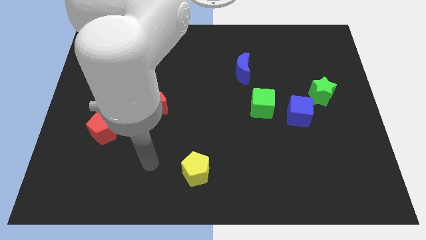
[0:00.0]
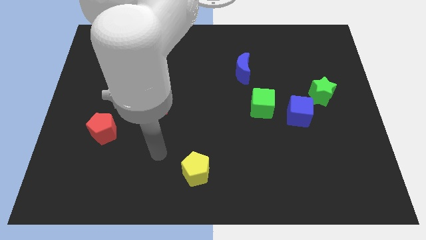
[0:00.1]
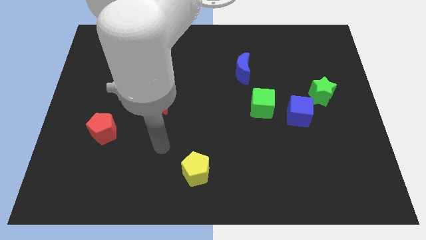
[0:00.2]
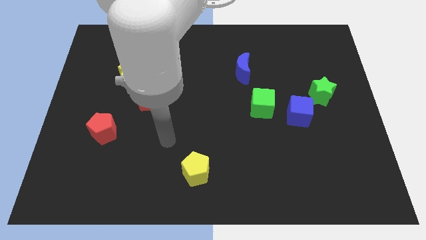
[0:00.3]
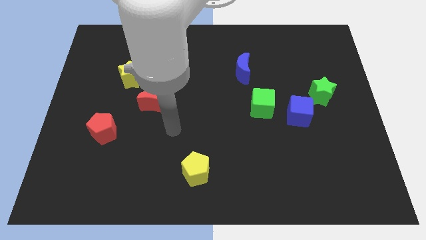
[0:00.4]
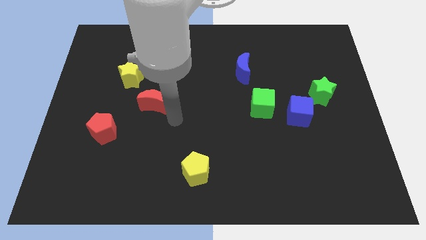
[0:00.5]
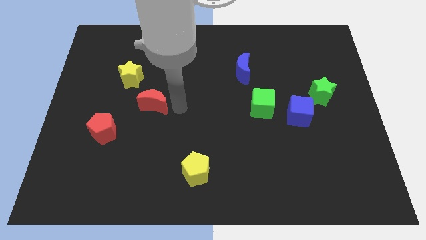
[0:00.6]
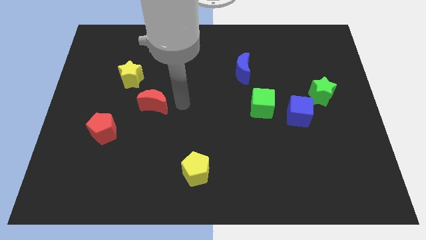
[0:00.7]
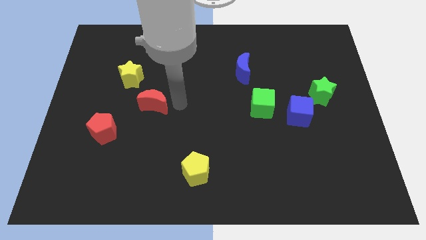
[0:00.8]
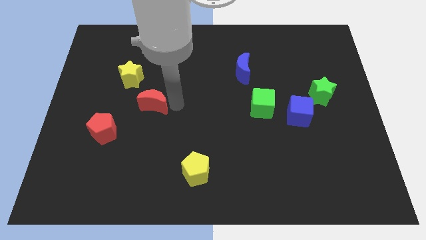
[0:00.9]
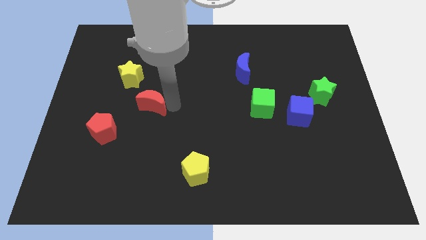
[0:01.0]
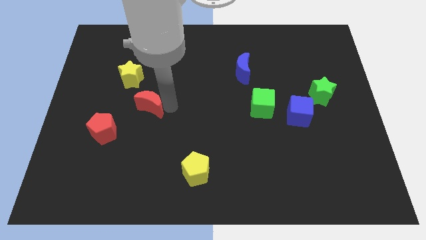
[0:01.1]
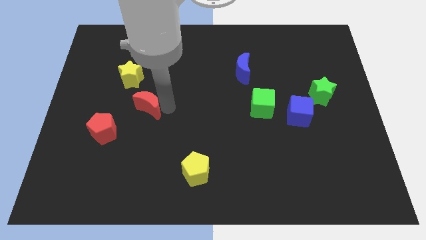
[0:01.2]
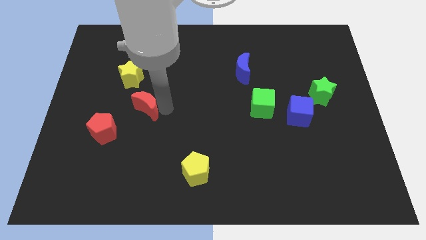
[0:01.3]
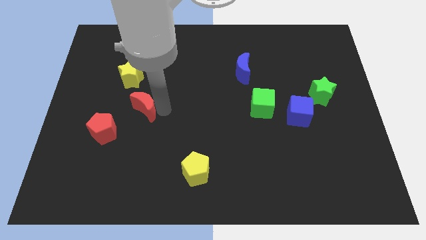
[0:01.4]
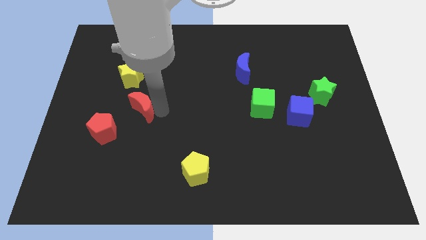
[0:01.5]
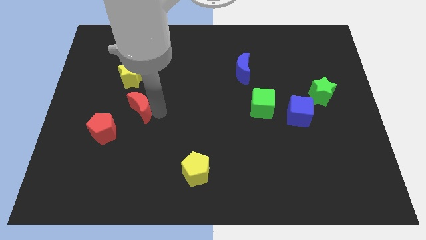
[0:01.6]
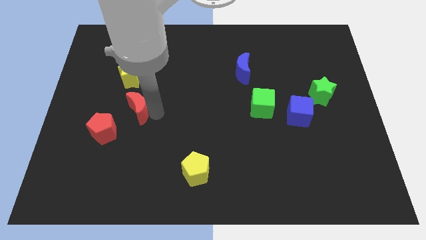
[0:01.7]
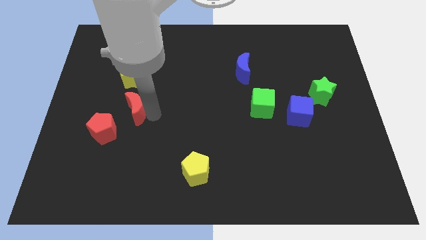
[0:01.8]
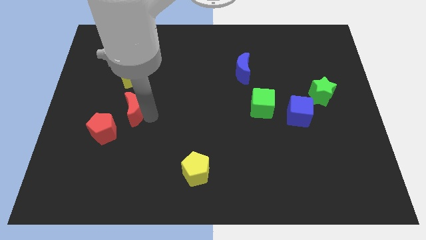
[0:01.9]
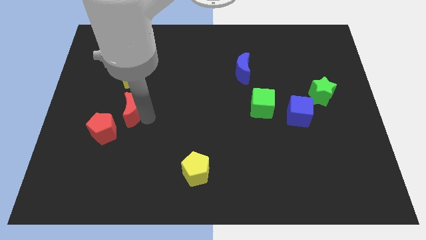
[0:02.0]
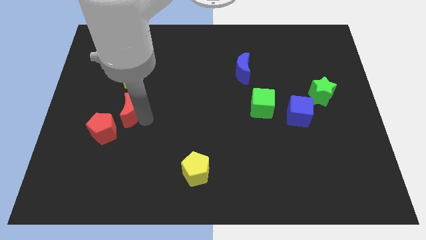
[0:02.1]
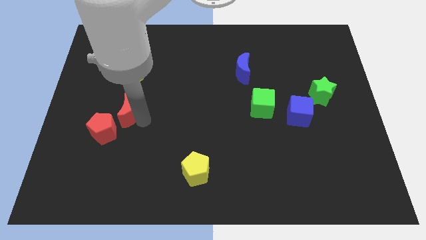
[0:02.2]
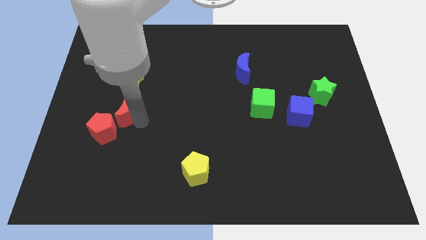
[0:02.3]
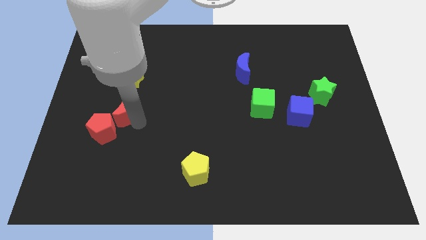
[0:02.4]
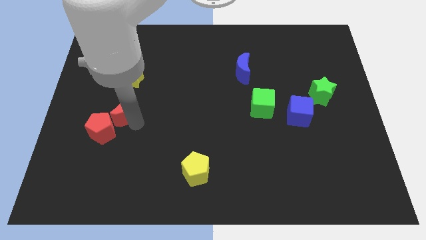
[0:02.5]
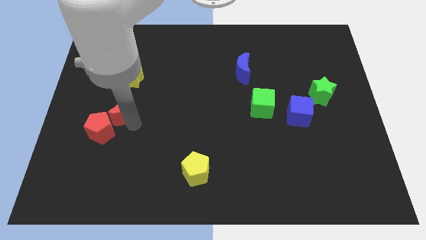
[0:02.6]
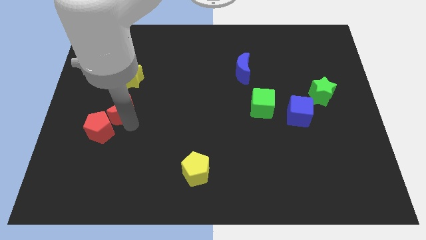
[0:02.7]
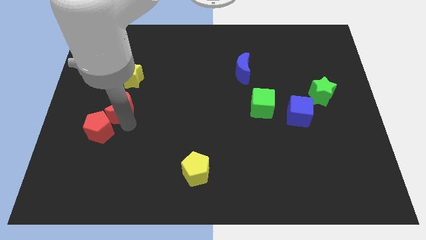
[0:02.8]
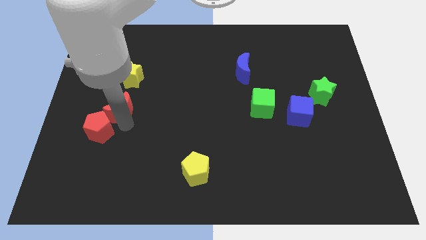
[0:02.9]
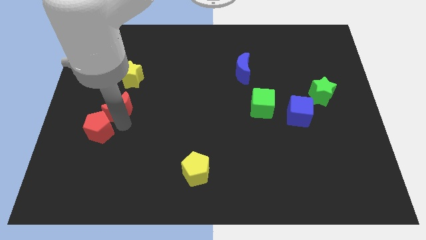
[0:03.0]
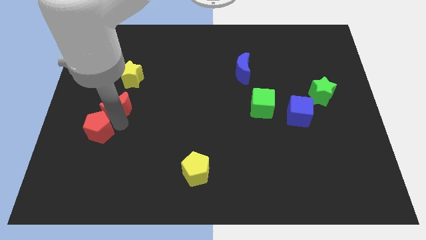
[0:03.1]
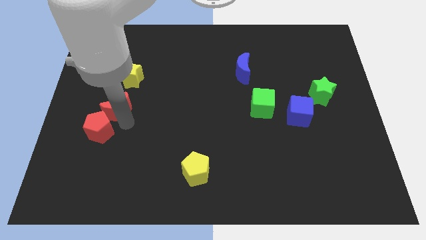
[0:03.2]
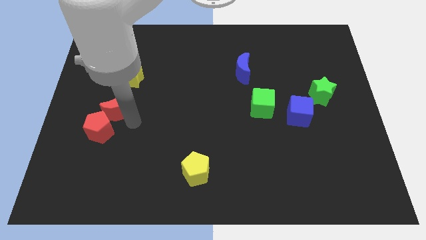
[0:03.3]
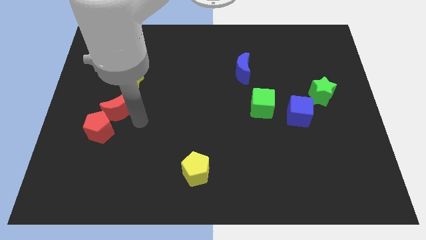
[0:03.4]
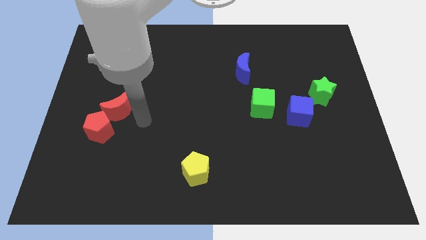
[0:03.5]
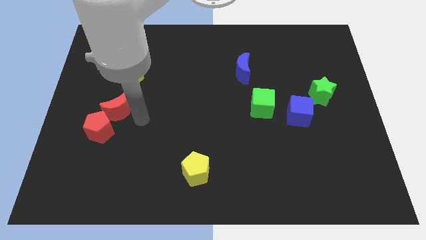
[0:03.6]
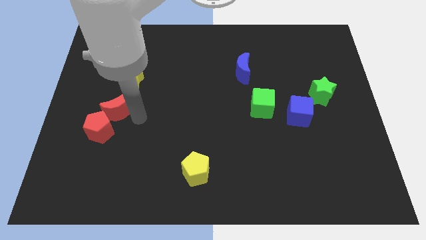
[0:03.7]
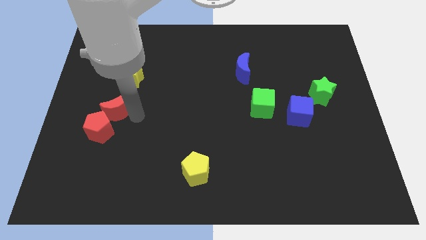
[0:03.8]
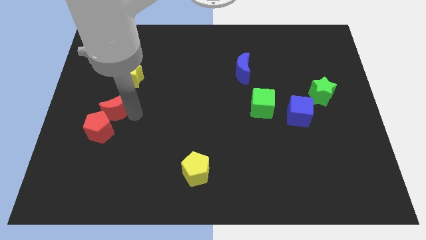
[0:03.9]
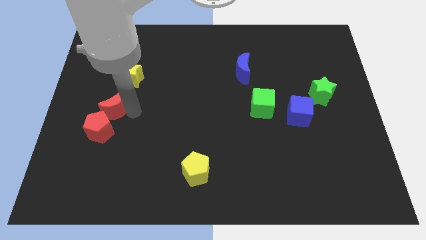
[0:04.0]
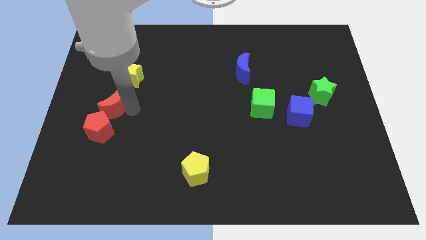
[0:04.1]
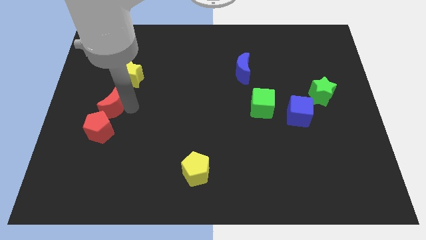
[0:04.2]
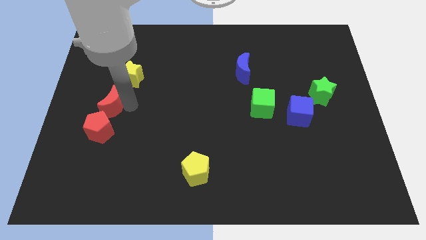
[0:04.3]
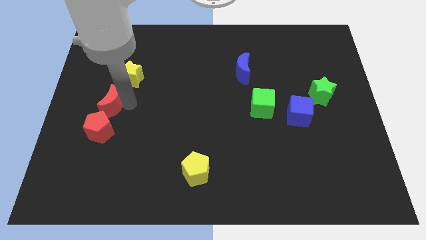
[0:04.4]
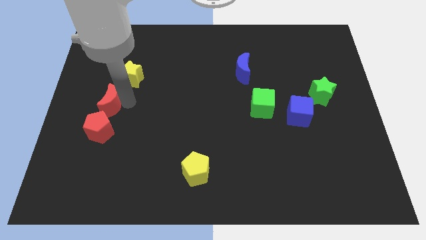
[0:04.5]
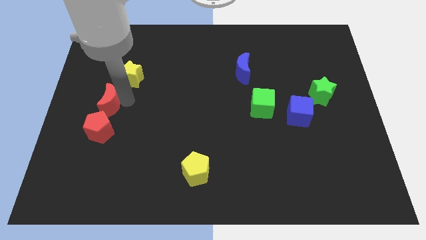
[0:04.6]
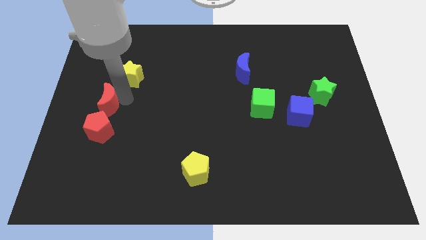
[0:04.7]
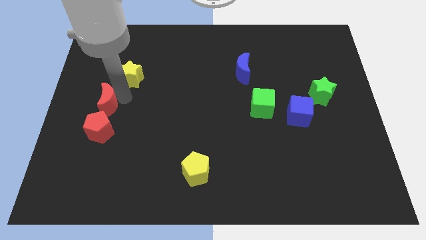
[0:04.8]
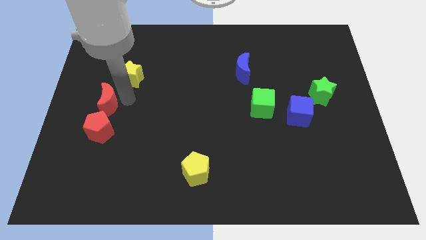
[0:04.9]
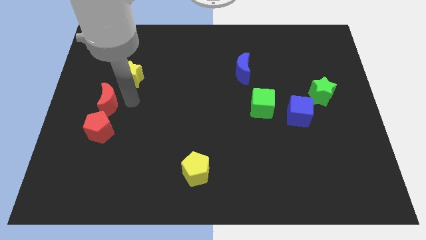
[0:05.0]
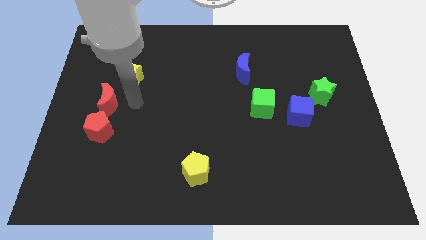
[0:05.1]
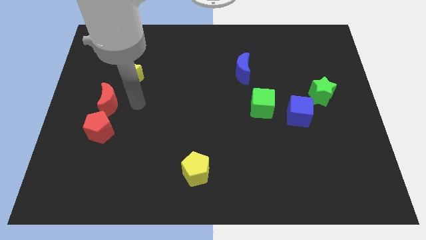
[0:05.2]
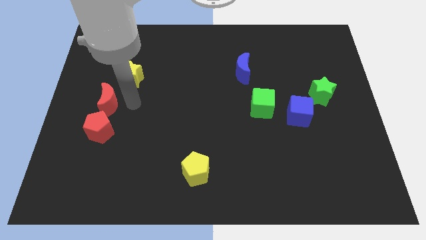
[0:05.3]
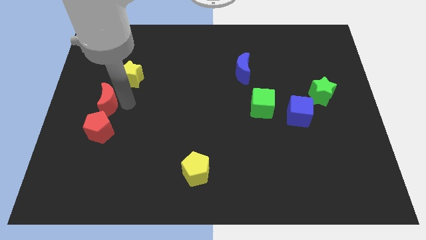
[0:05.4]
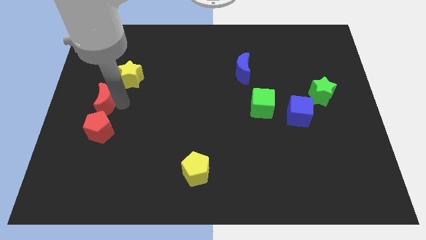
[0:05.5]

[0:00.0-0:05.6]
slide the red moon to the left side

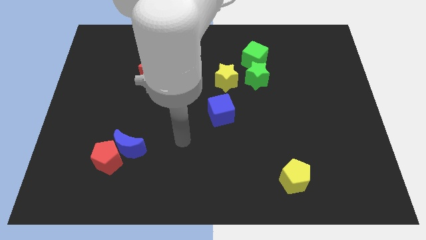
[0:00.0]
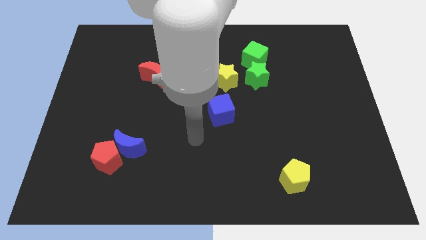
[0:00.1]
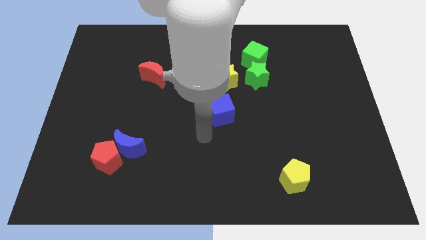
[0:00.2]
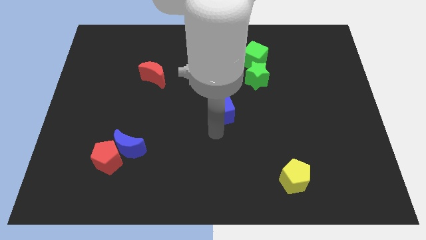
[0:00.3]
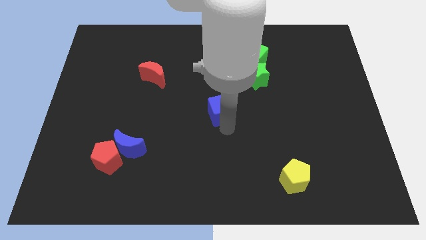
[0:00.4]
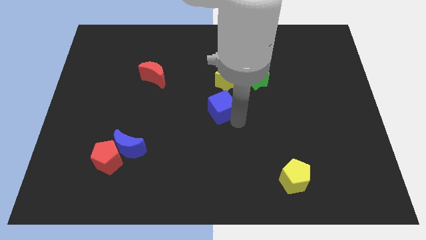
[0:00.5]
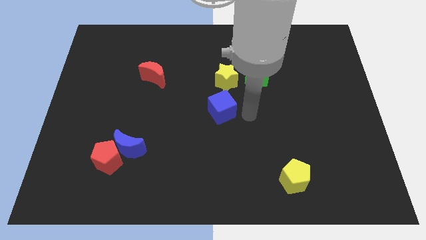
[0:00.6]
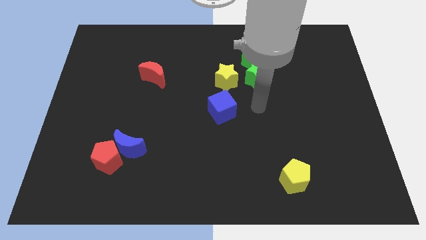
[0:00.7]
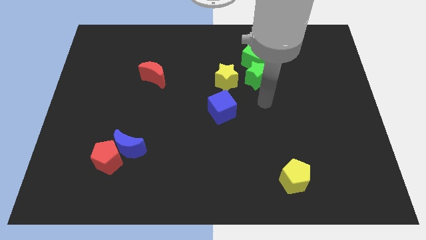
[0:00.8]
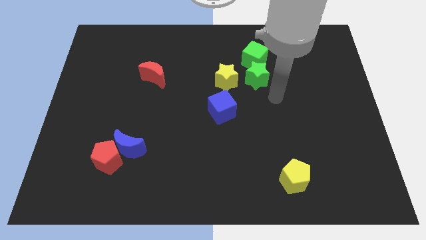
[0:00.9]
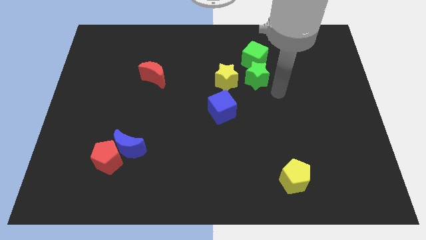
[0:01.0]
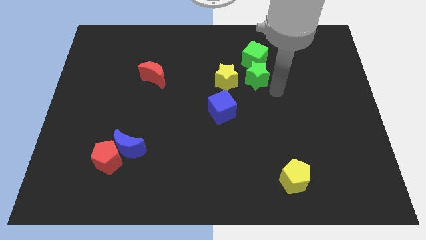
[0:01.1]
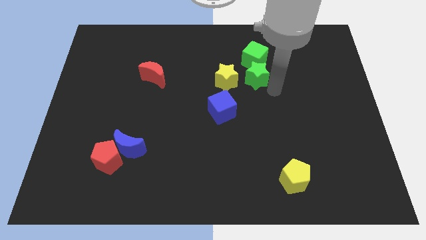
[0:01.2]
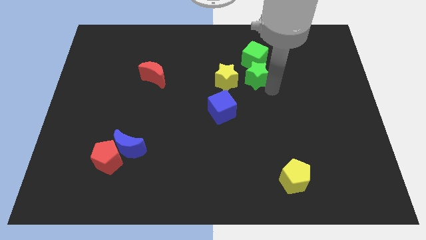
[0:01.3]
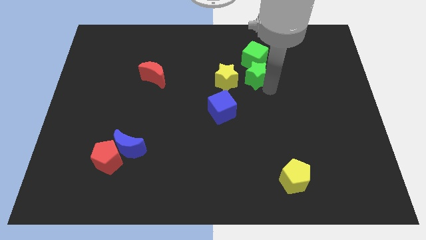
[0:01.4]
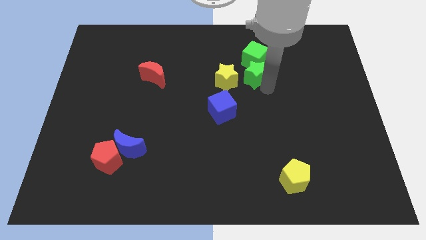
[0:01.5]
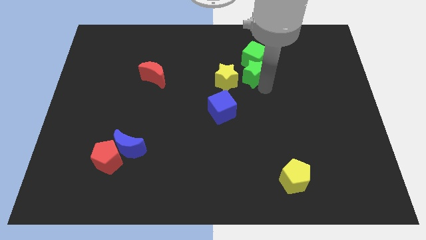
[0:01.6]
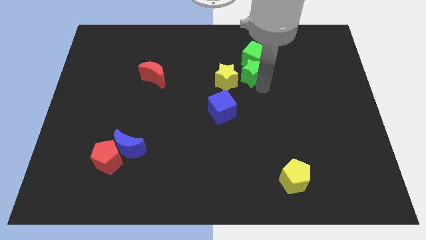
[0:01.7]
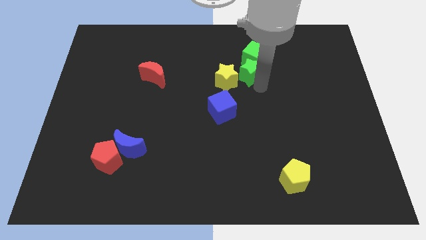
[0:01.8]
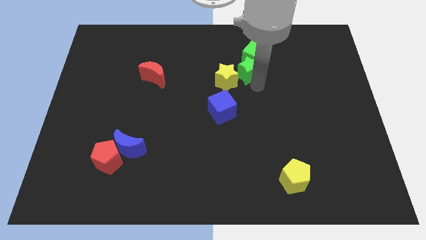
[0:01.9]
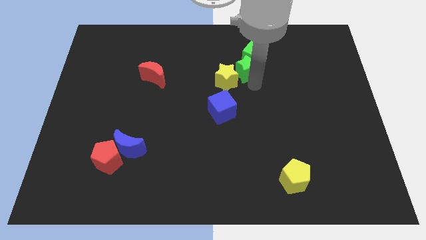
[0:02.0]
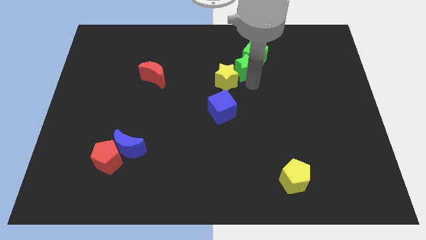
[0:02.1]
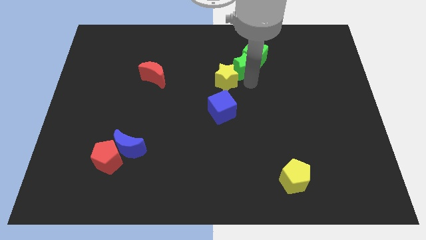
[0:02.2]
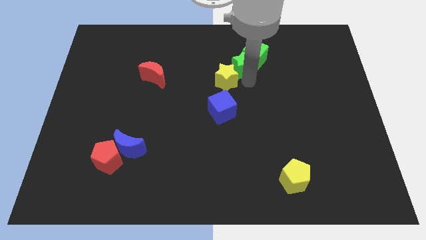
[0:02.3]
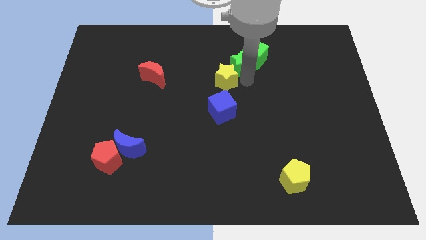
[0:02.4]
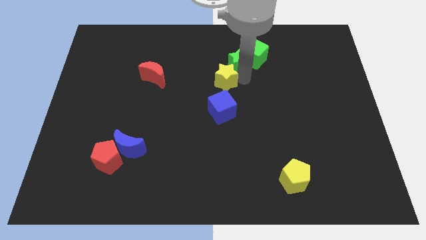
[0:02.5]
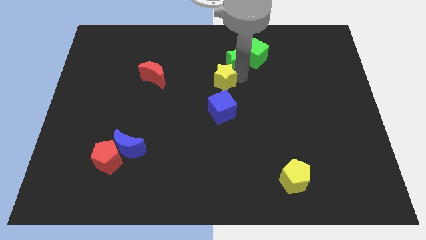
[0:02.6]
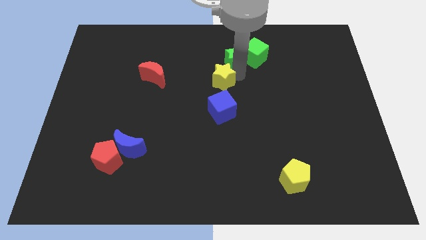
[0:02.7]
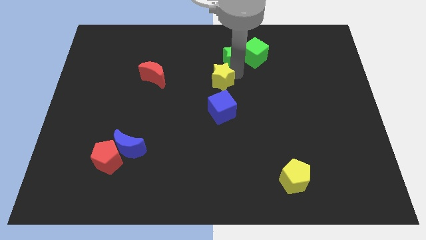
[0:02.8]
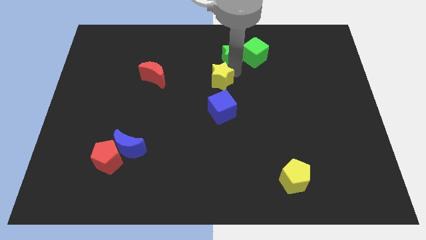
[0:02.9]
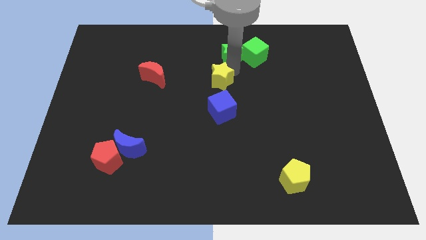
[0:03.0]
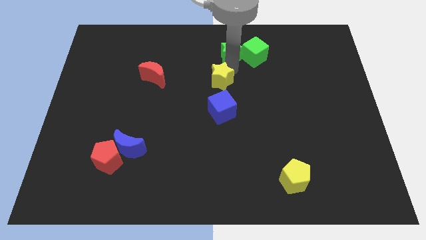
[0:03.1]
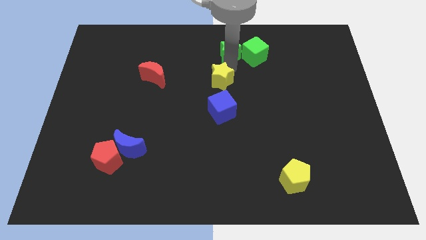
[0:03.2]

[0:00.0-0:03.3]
move the green star to the top
